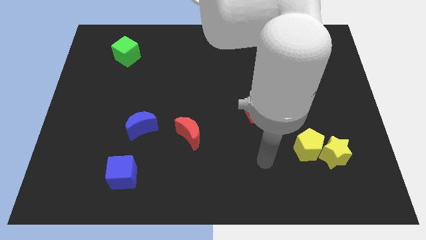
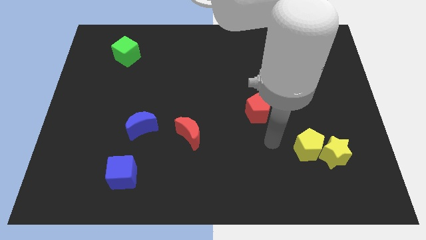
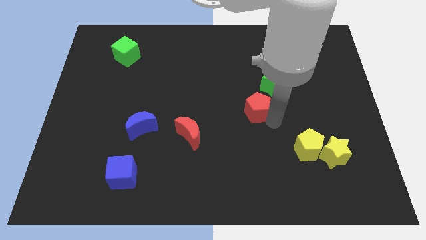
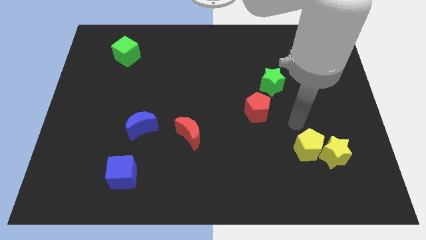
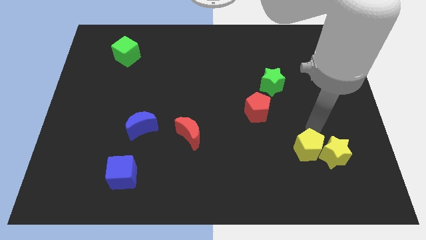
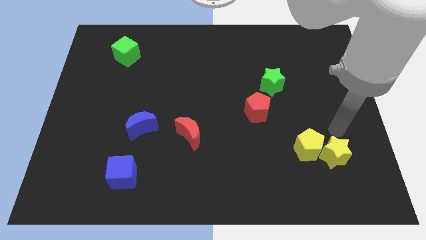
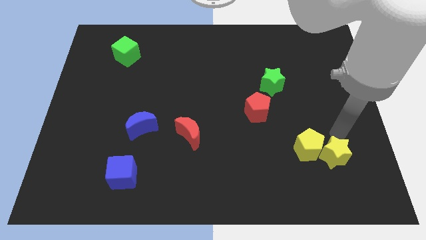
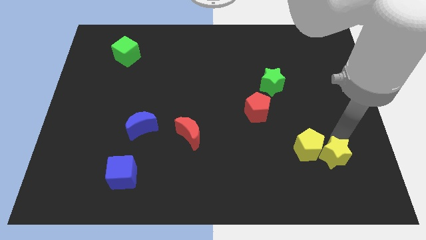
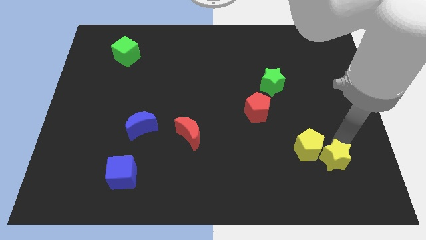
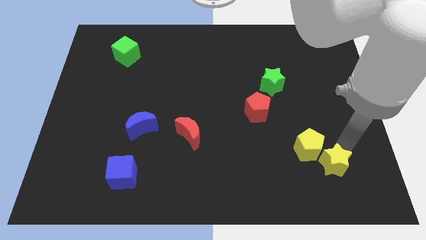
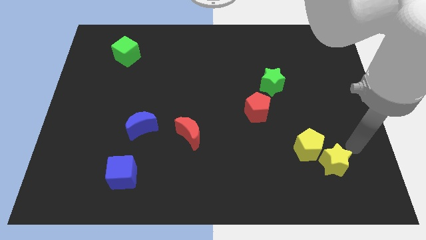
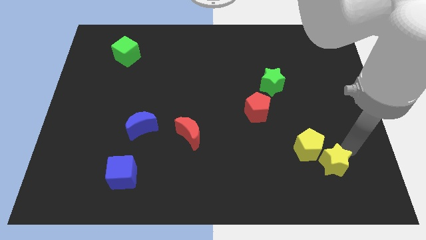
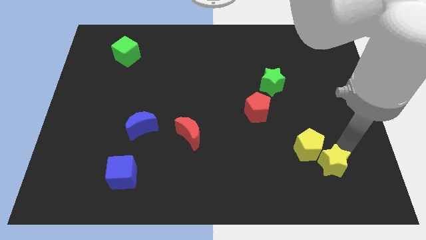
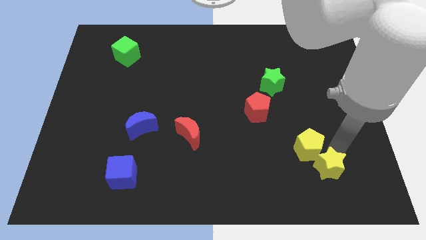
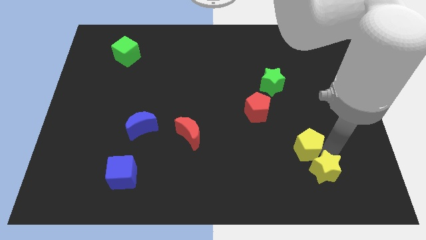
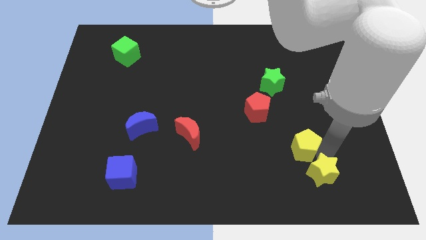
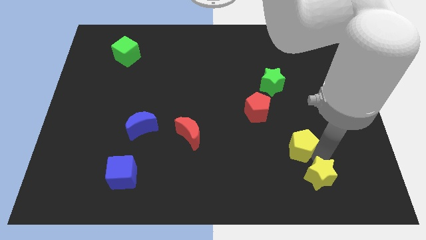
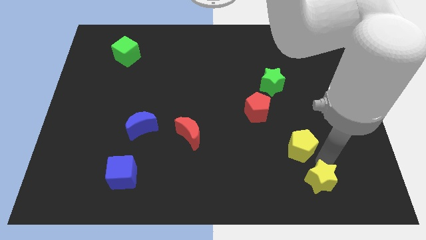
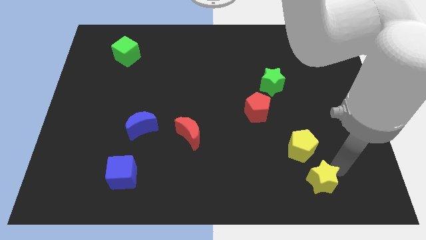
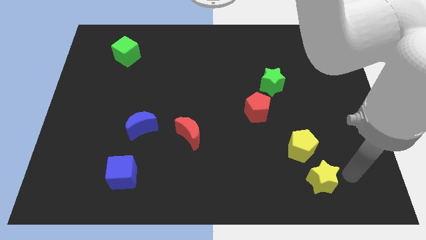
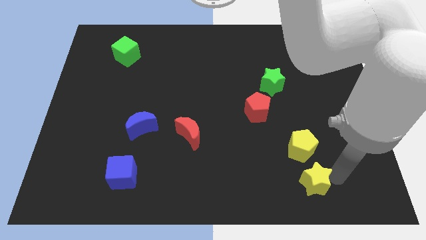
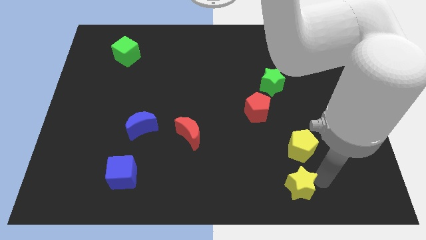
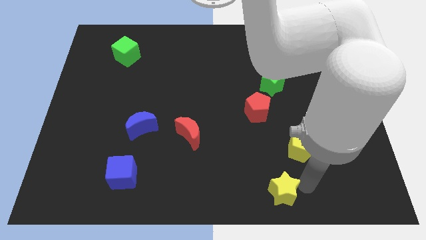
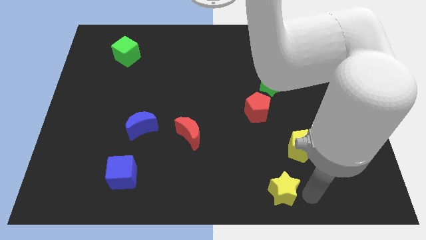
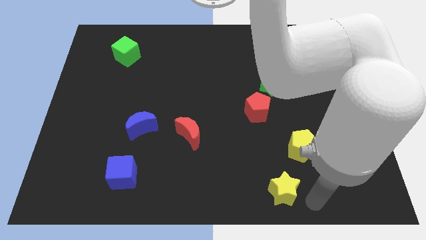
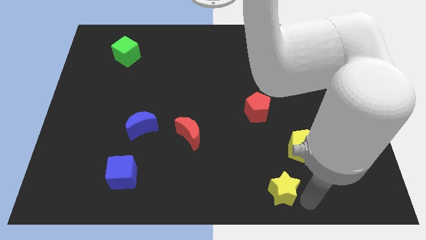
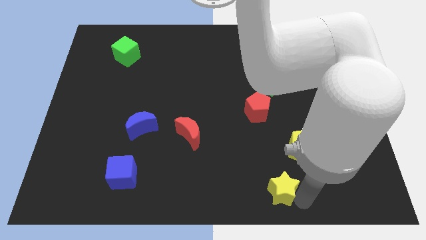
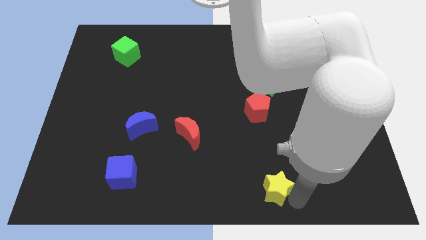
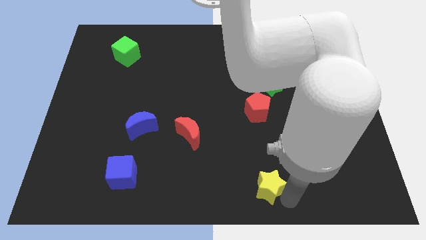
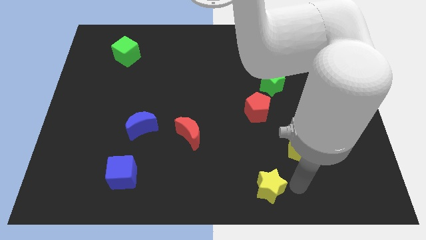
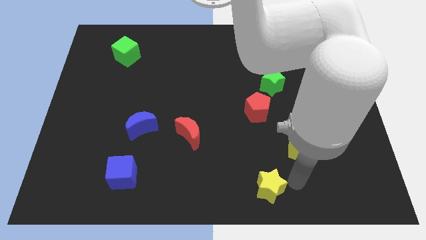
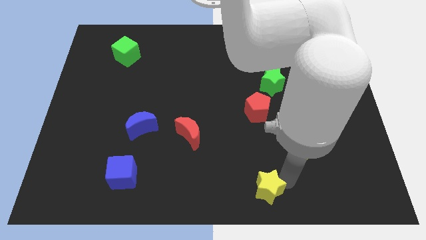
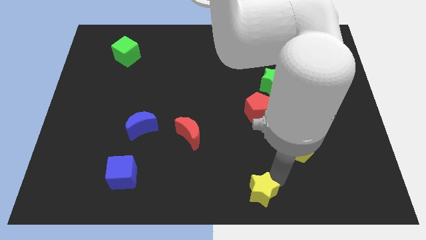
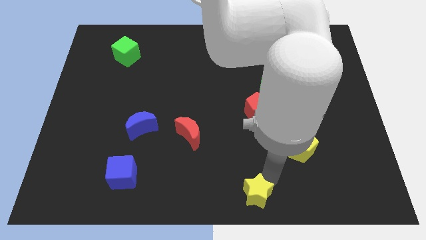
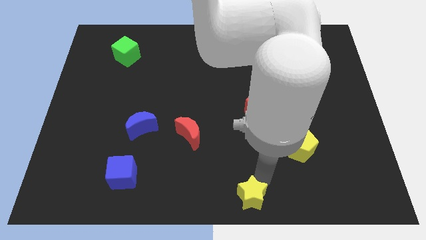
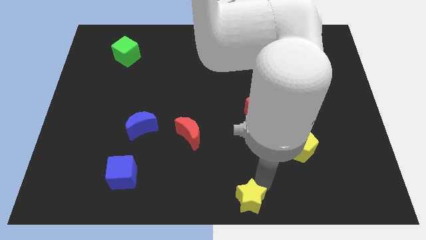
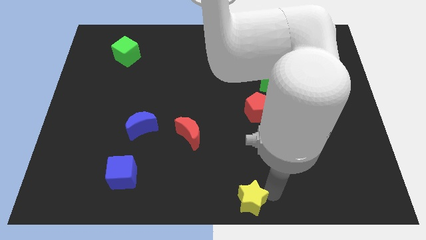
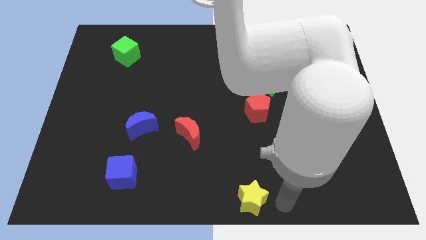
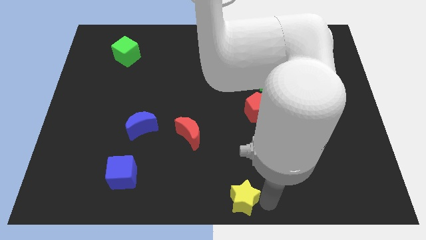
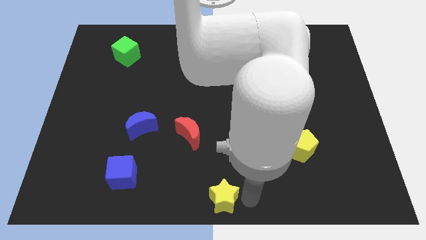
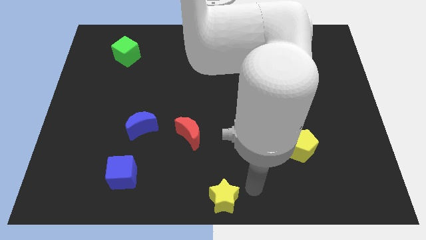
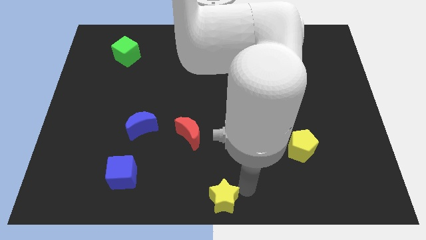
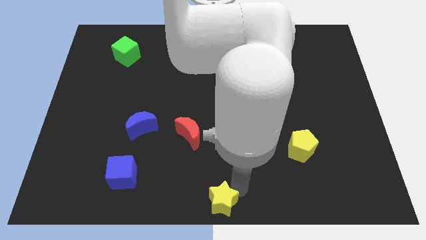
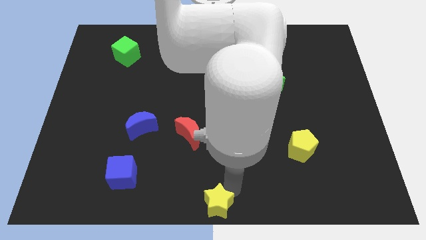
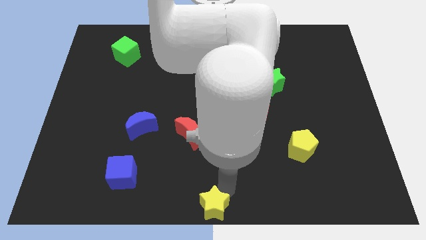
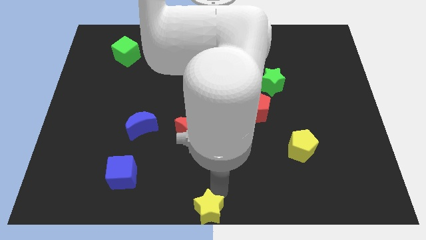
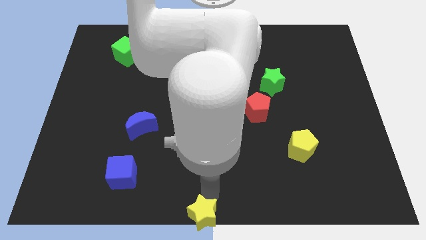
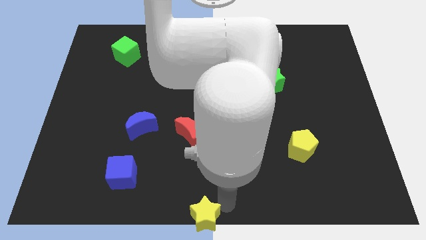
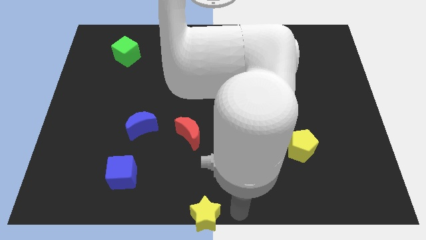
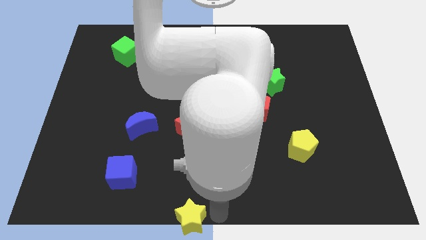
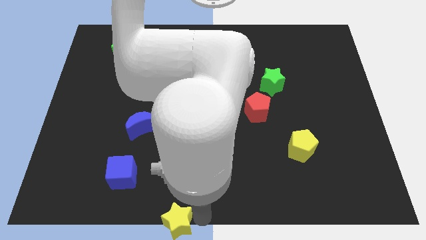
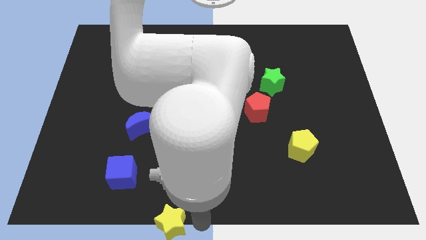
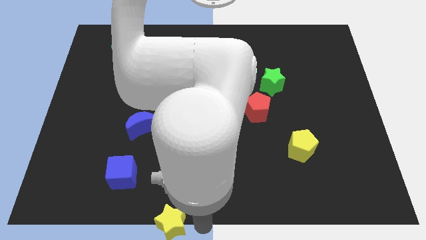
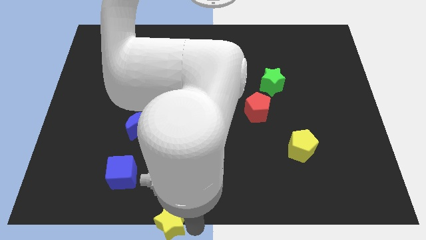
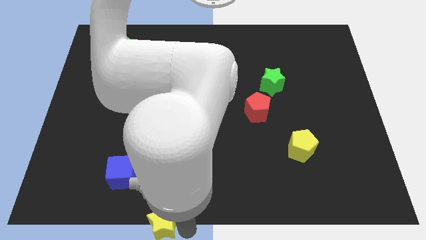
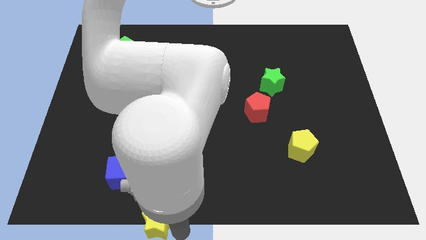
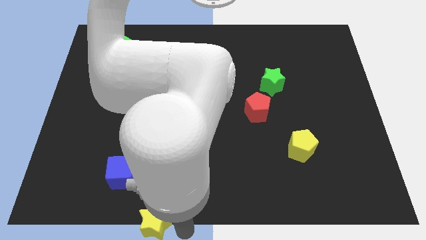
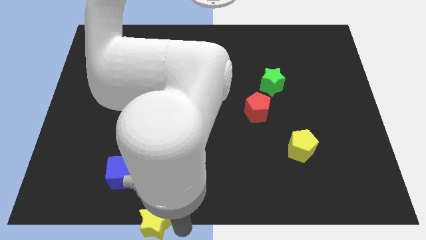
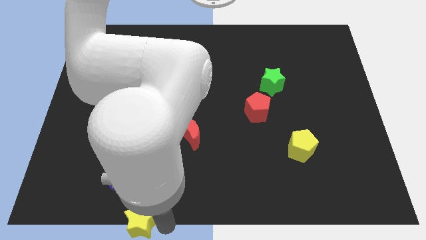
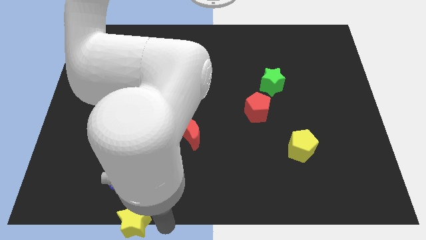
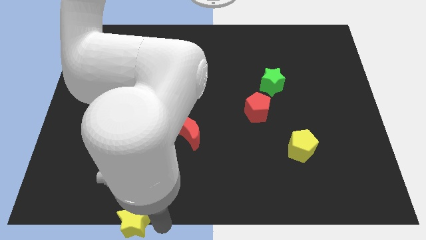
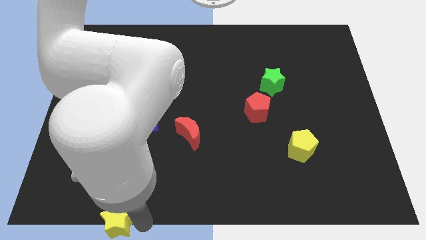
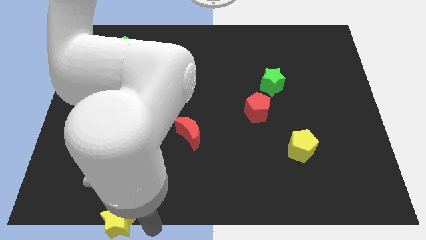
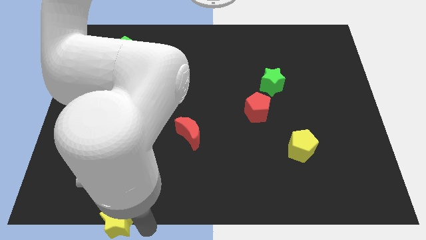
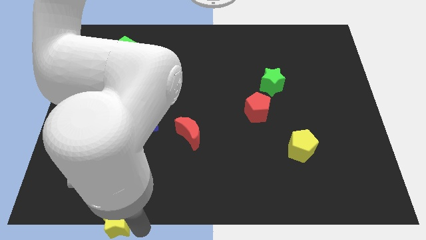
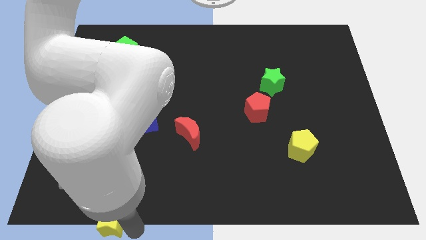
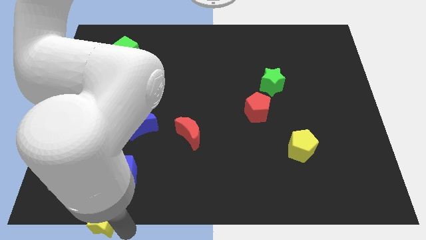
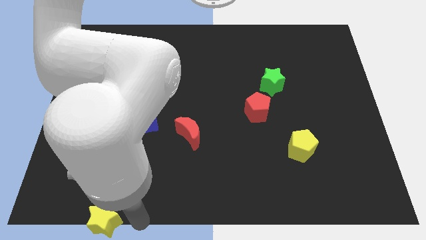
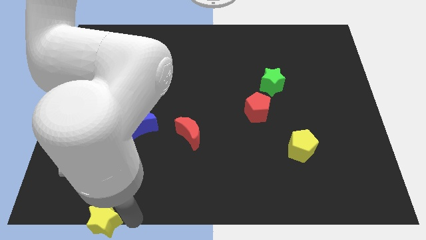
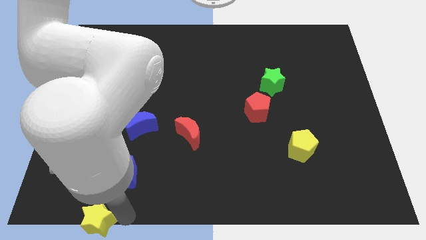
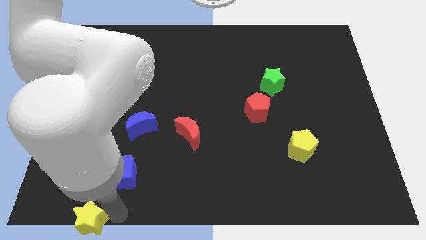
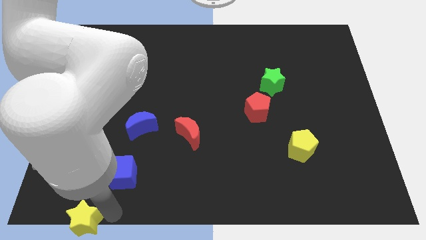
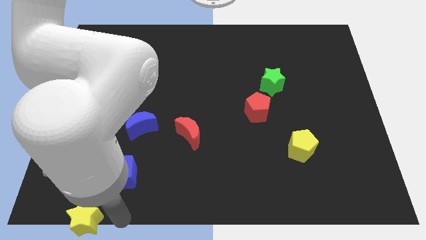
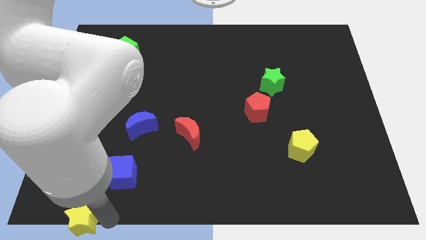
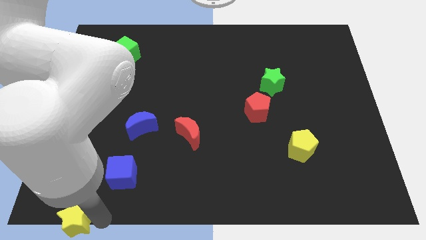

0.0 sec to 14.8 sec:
move the yellow star to the lower left corner
